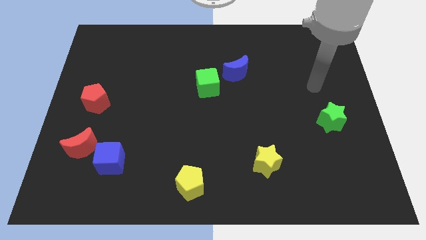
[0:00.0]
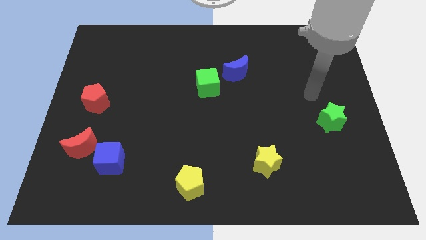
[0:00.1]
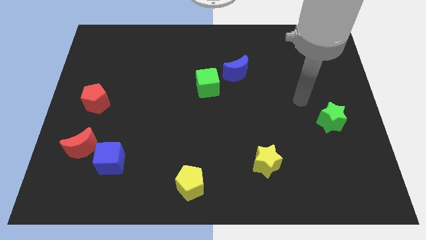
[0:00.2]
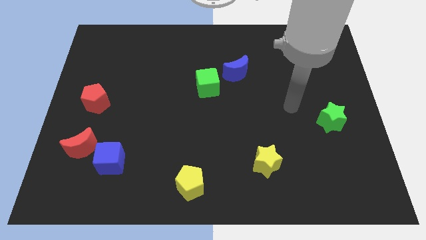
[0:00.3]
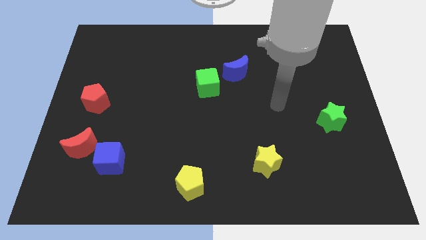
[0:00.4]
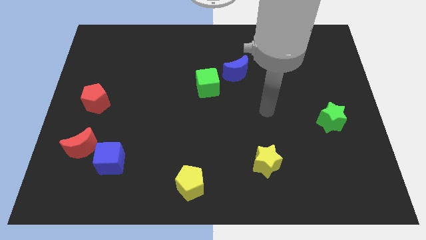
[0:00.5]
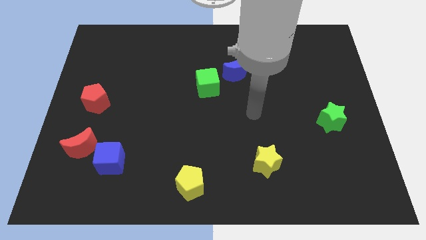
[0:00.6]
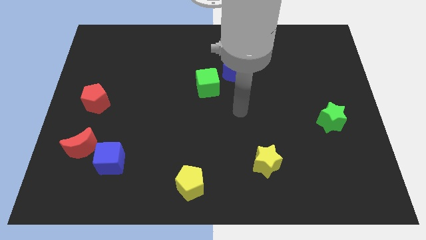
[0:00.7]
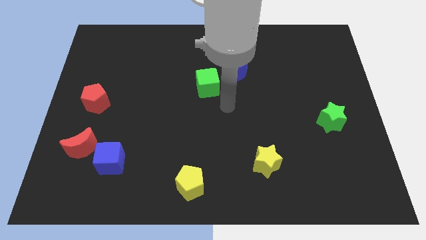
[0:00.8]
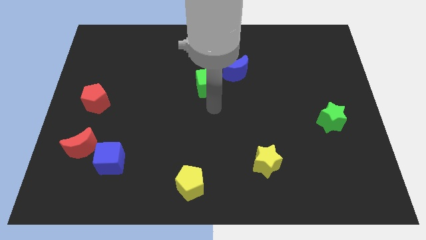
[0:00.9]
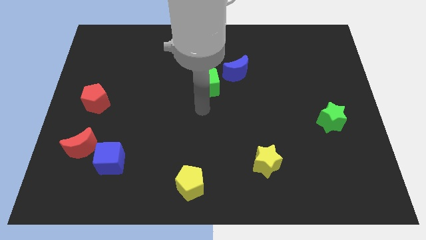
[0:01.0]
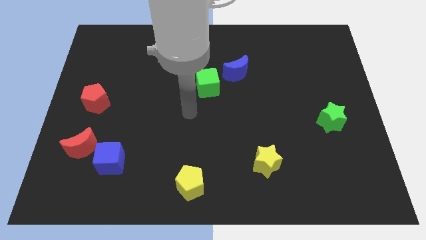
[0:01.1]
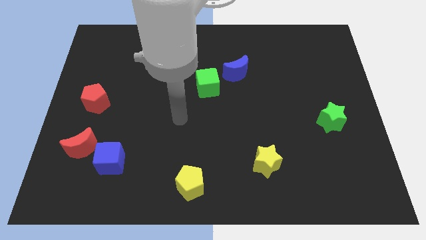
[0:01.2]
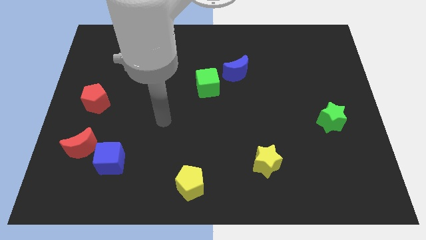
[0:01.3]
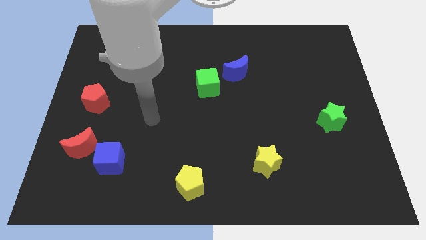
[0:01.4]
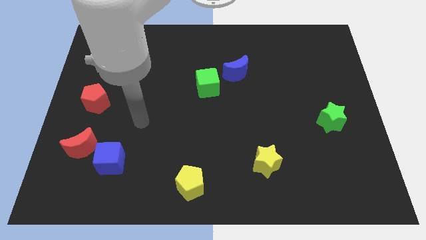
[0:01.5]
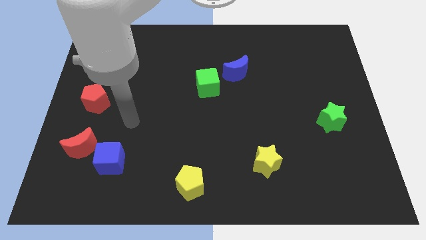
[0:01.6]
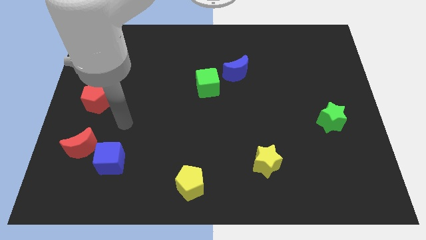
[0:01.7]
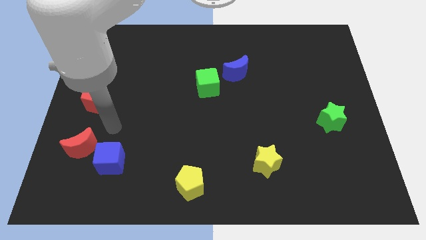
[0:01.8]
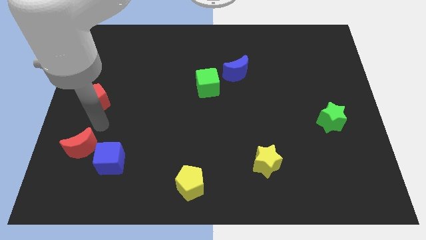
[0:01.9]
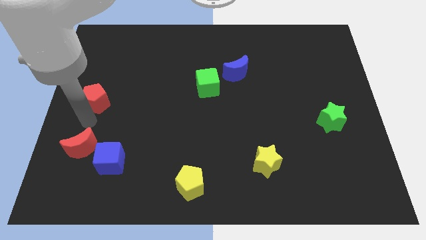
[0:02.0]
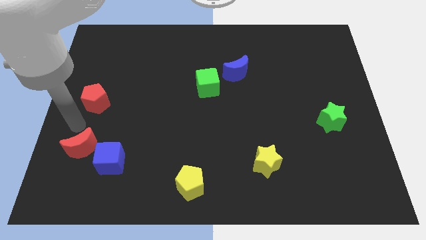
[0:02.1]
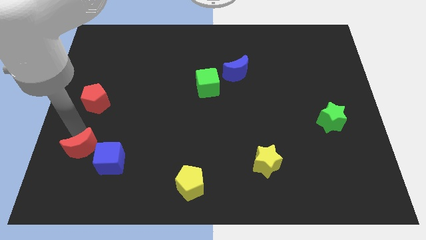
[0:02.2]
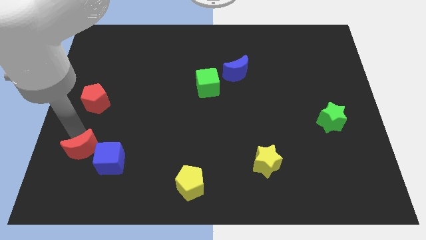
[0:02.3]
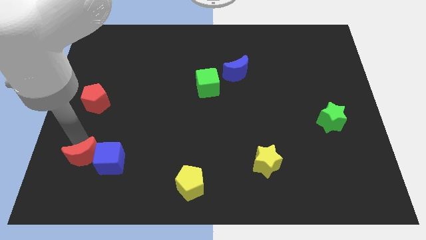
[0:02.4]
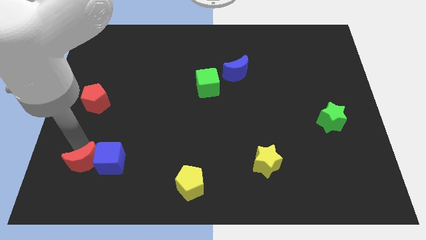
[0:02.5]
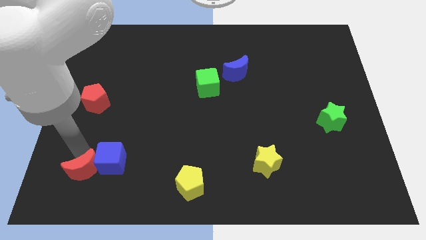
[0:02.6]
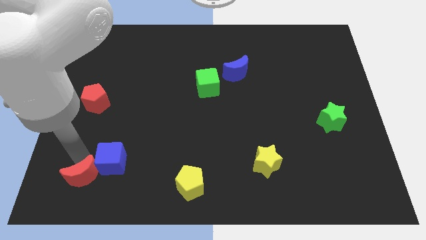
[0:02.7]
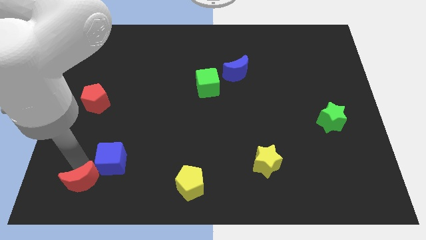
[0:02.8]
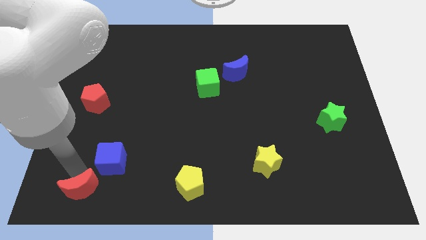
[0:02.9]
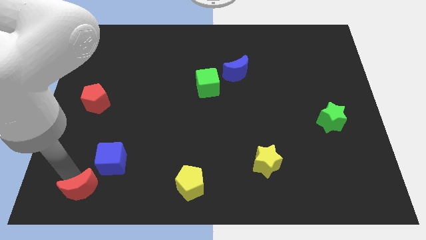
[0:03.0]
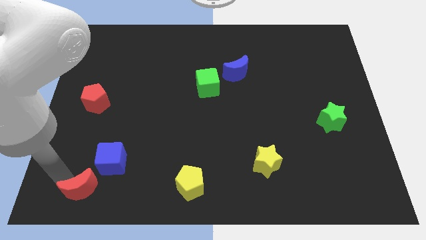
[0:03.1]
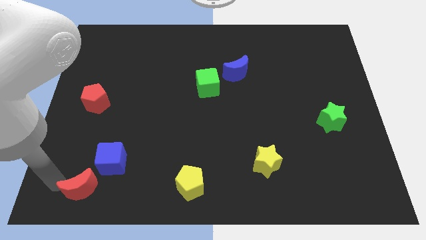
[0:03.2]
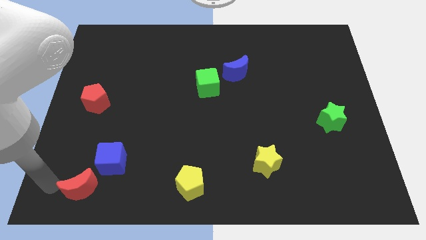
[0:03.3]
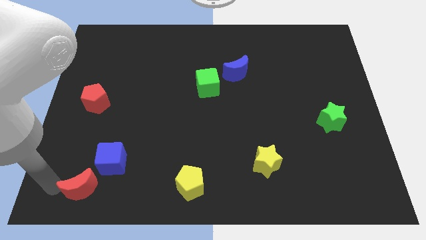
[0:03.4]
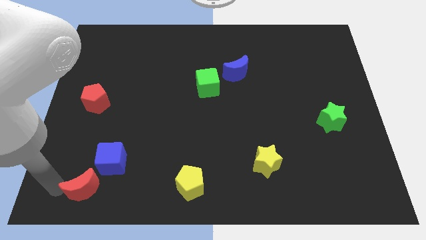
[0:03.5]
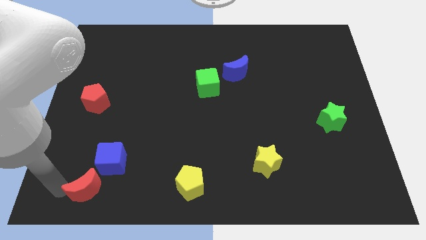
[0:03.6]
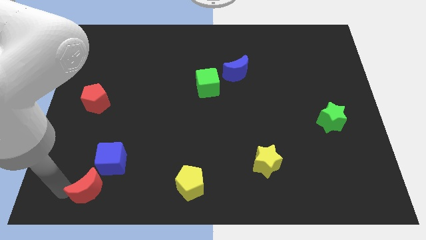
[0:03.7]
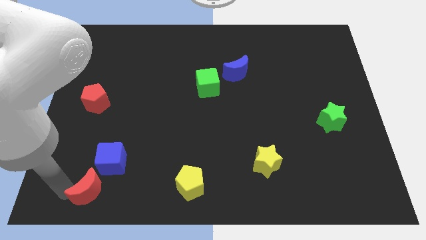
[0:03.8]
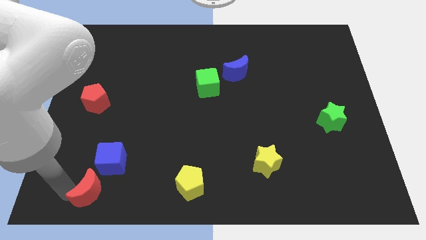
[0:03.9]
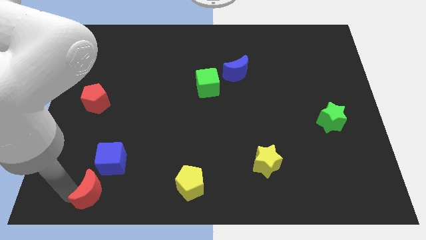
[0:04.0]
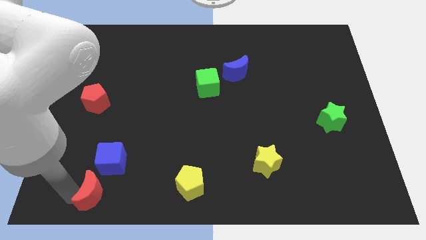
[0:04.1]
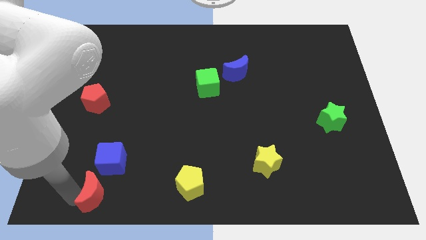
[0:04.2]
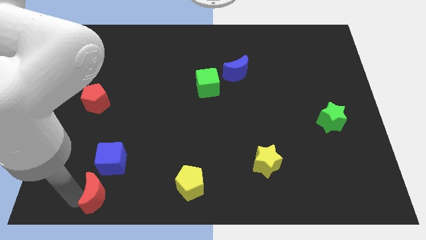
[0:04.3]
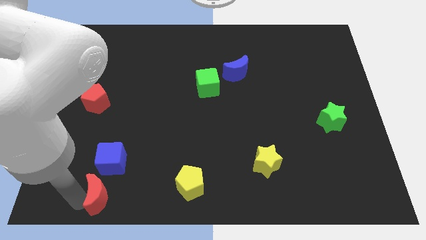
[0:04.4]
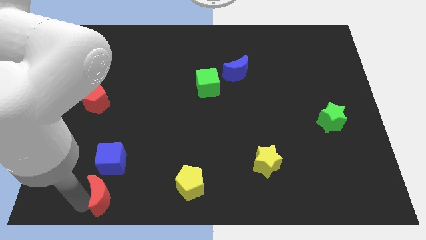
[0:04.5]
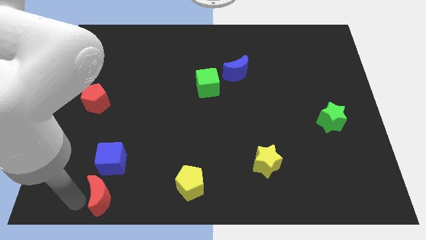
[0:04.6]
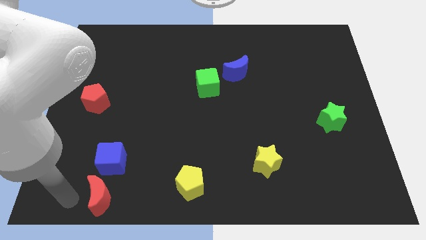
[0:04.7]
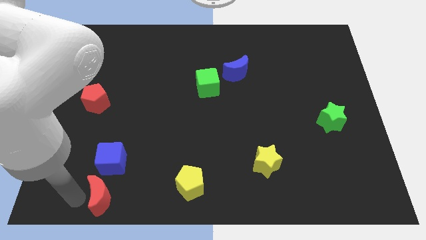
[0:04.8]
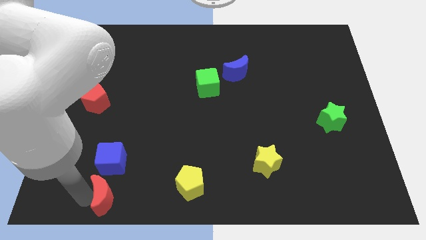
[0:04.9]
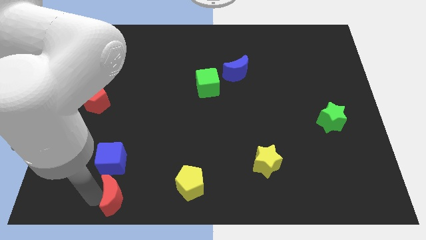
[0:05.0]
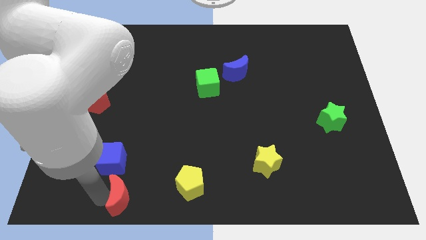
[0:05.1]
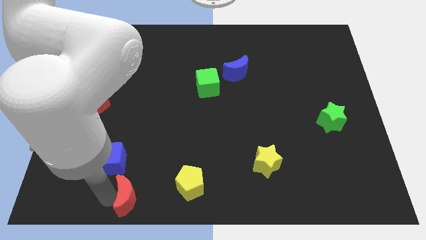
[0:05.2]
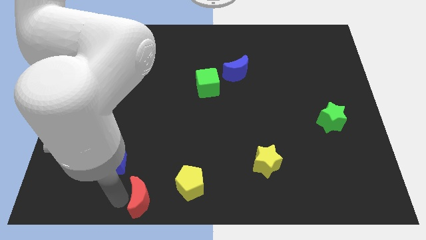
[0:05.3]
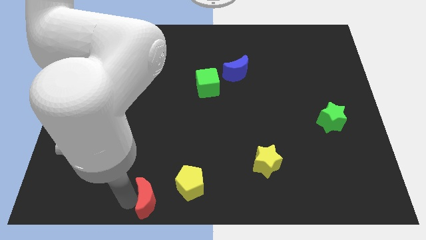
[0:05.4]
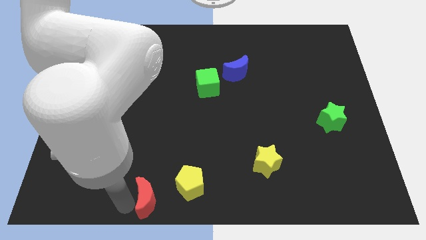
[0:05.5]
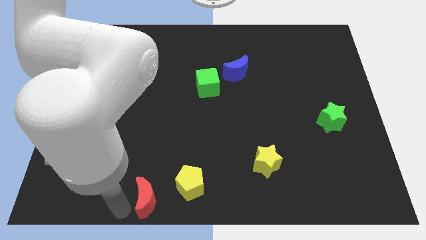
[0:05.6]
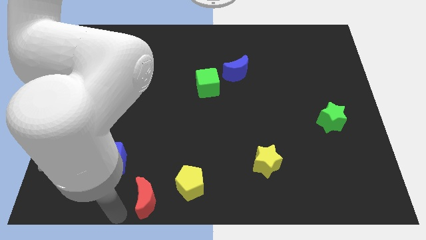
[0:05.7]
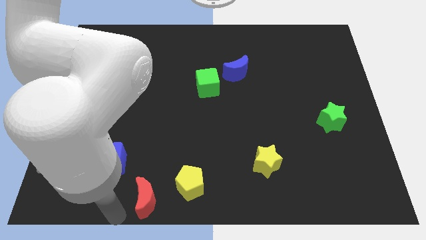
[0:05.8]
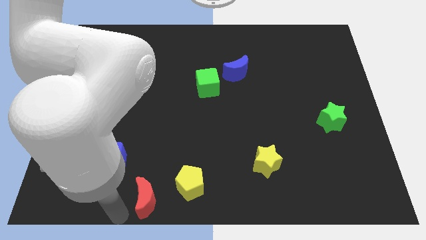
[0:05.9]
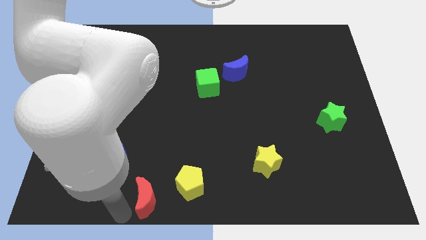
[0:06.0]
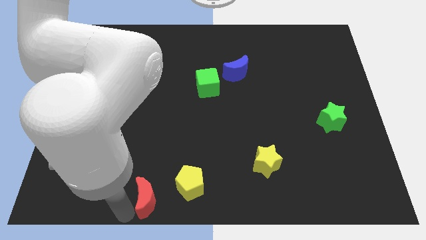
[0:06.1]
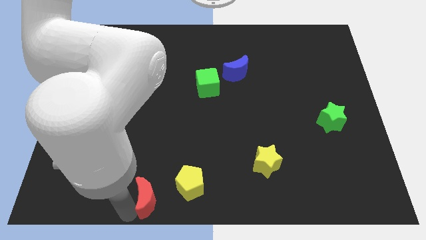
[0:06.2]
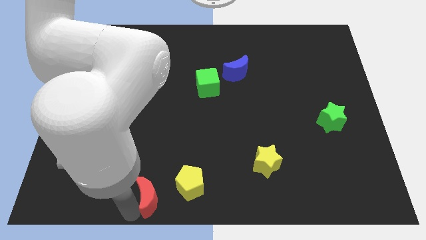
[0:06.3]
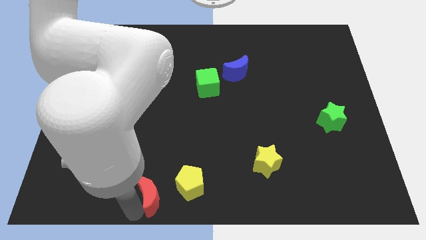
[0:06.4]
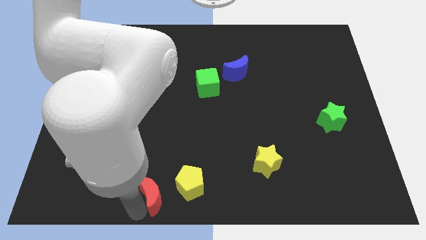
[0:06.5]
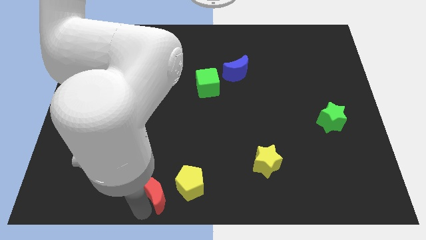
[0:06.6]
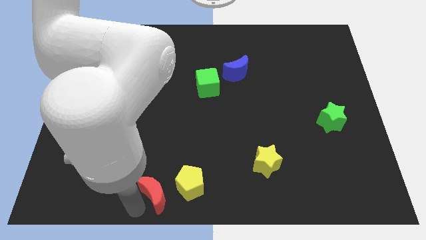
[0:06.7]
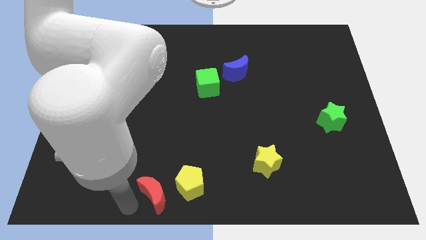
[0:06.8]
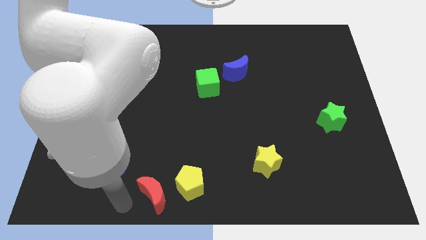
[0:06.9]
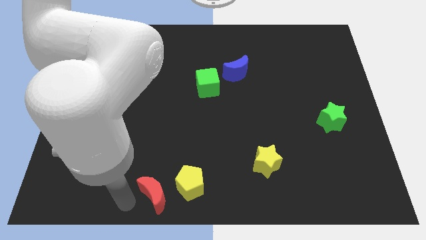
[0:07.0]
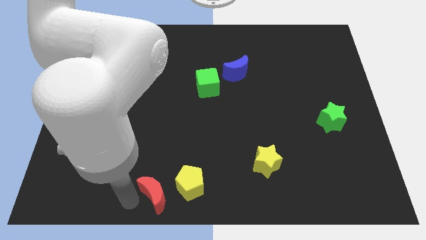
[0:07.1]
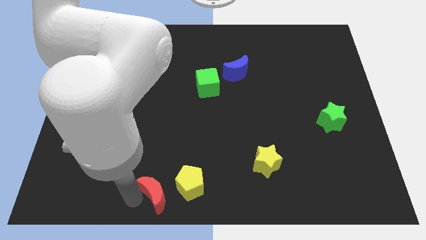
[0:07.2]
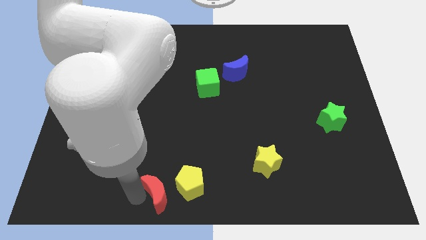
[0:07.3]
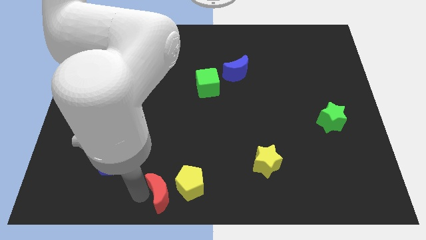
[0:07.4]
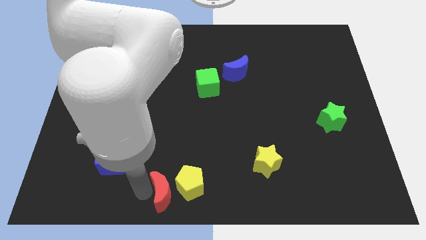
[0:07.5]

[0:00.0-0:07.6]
put the red moon to the yellow pentagon
